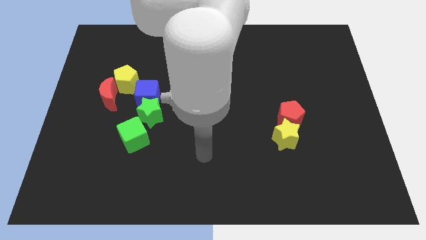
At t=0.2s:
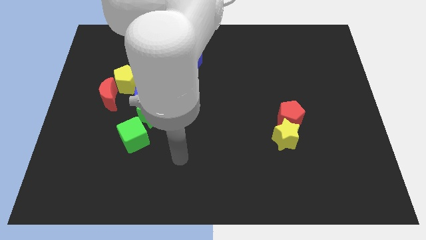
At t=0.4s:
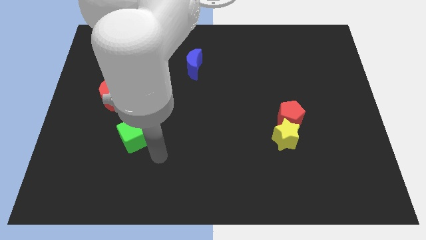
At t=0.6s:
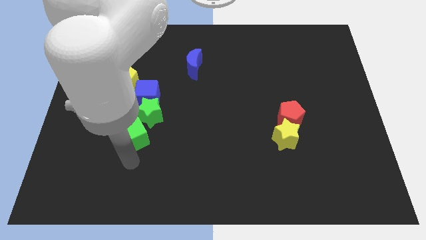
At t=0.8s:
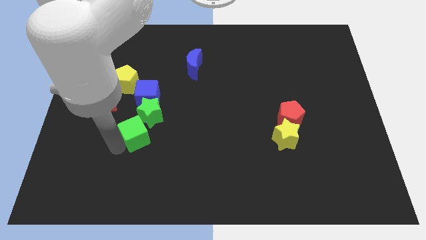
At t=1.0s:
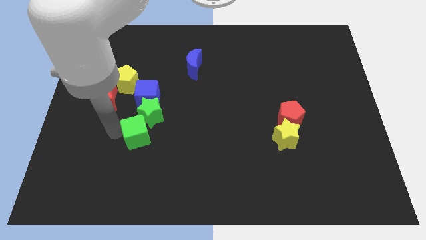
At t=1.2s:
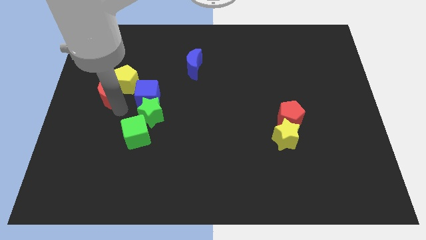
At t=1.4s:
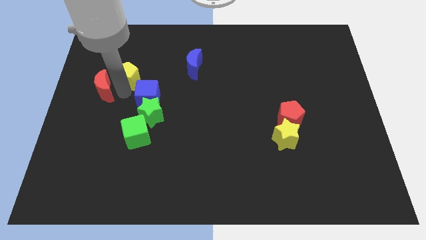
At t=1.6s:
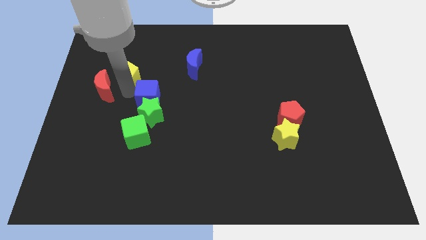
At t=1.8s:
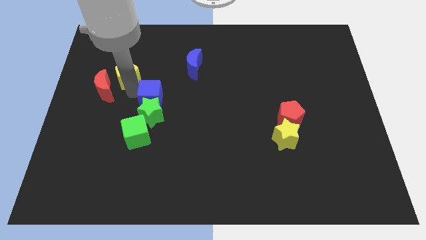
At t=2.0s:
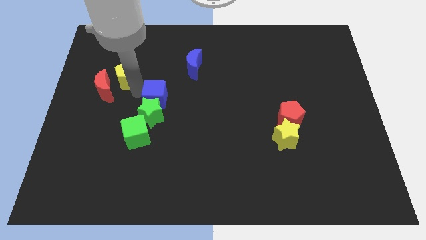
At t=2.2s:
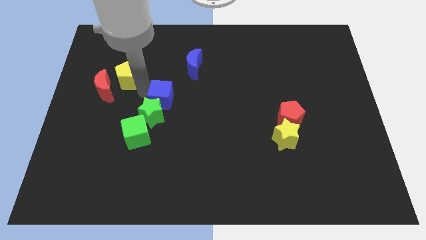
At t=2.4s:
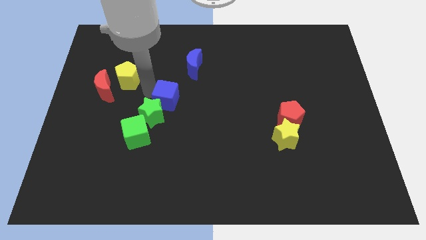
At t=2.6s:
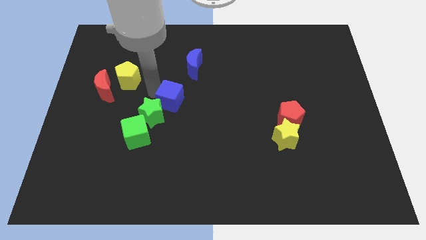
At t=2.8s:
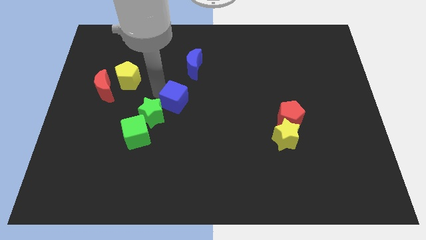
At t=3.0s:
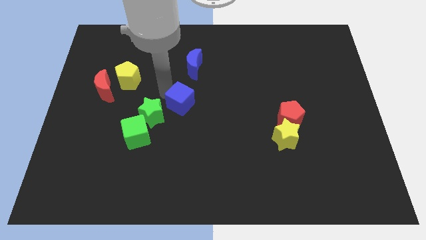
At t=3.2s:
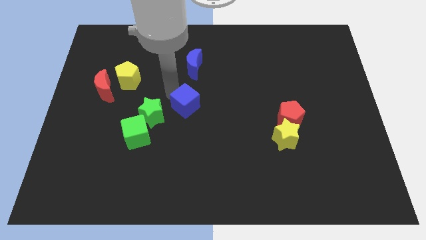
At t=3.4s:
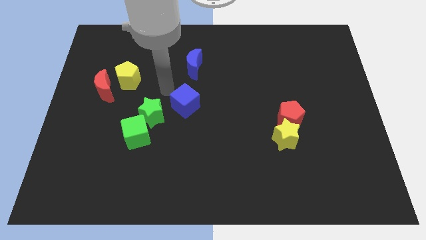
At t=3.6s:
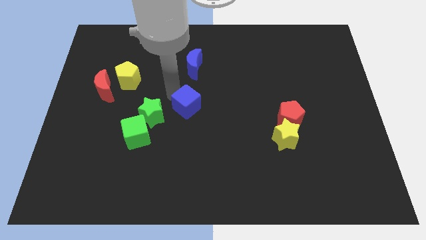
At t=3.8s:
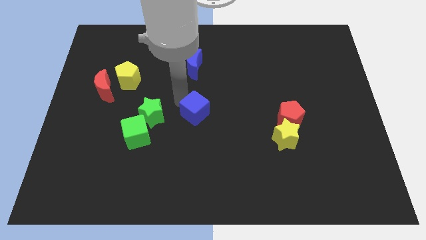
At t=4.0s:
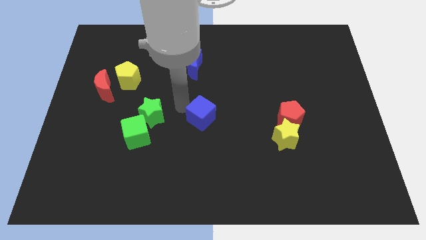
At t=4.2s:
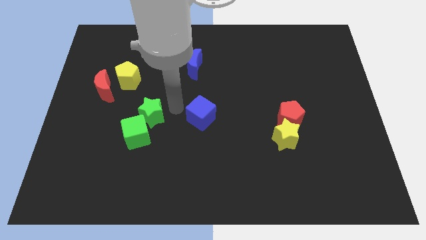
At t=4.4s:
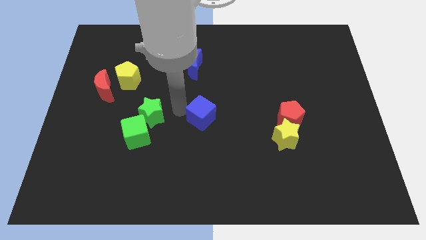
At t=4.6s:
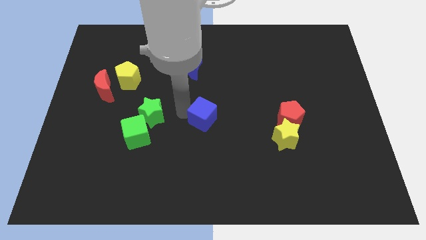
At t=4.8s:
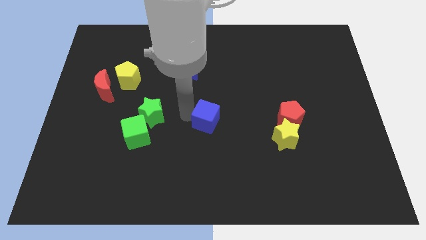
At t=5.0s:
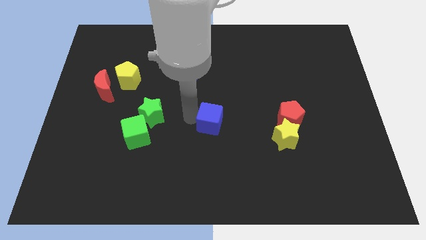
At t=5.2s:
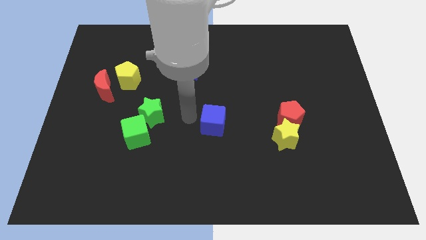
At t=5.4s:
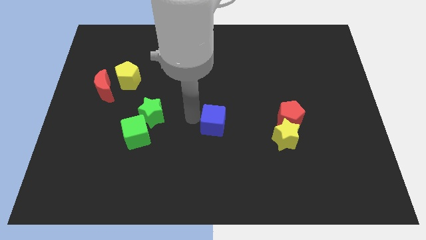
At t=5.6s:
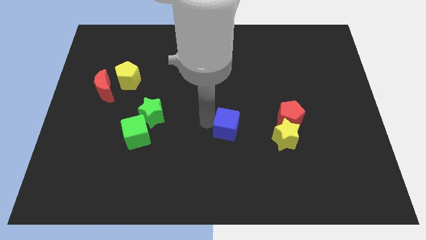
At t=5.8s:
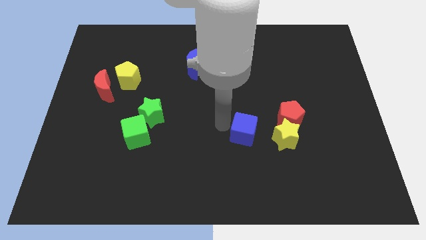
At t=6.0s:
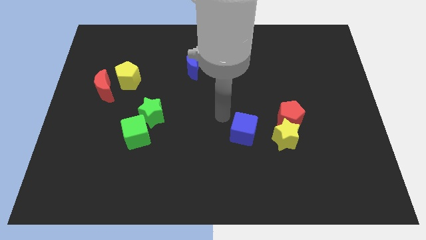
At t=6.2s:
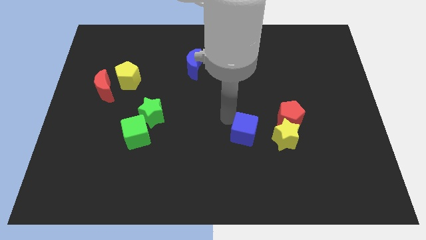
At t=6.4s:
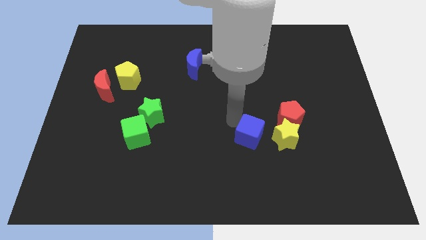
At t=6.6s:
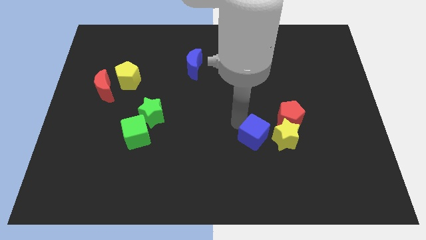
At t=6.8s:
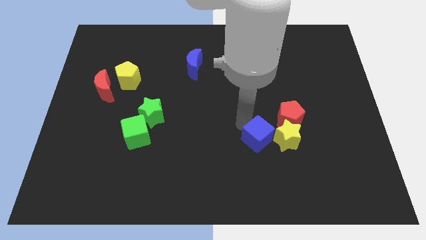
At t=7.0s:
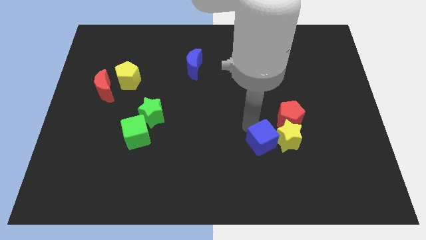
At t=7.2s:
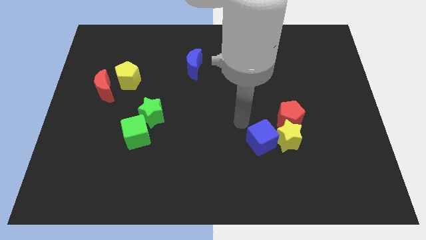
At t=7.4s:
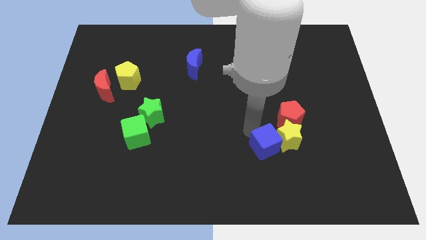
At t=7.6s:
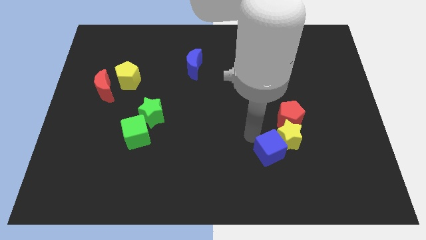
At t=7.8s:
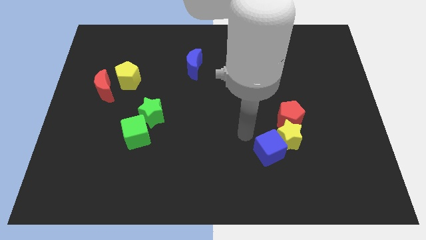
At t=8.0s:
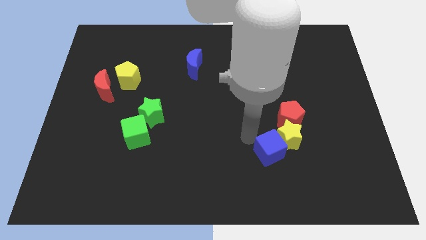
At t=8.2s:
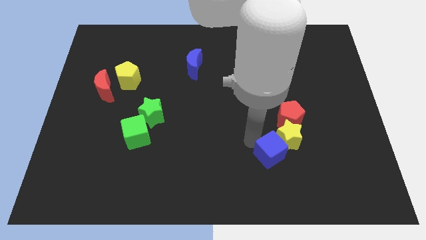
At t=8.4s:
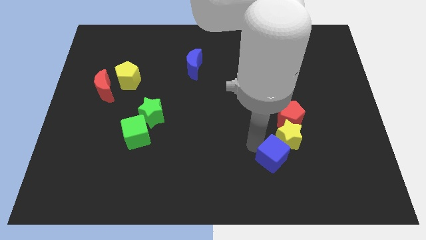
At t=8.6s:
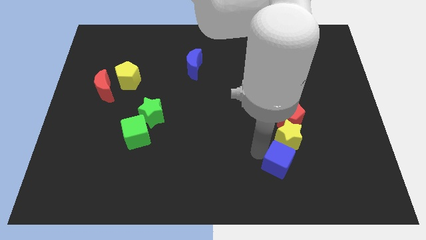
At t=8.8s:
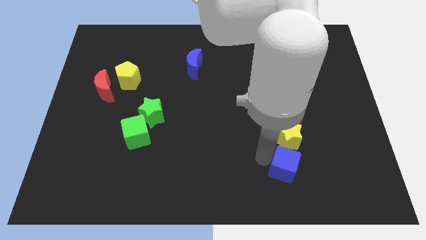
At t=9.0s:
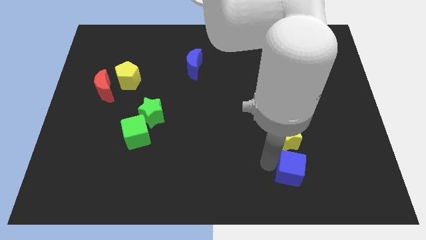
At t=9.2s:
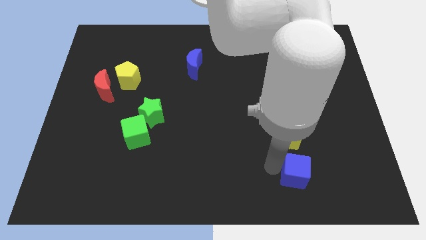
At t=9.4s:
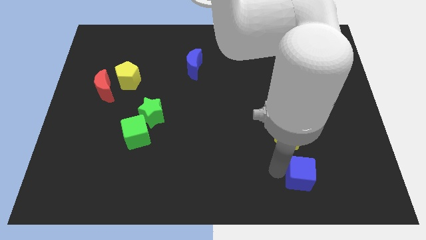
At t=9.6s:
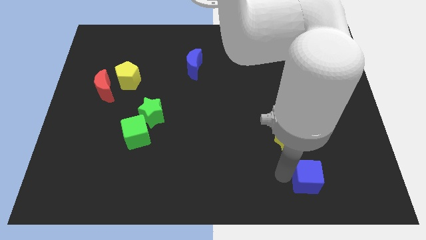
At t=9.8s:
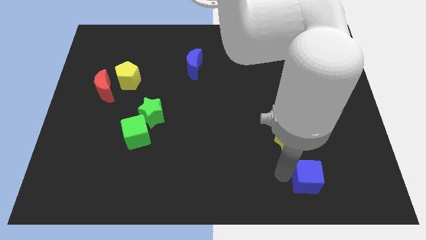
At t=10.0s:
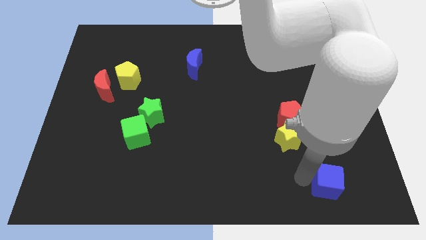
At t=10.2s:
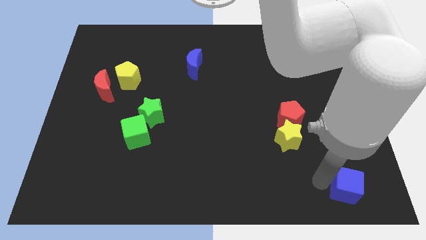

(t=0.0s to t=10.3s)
slide the blue cube to the bottom right of the board
